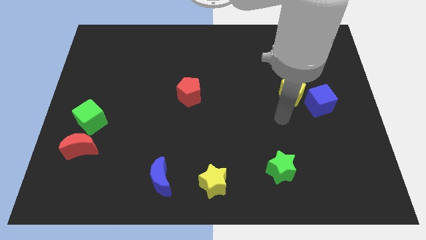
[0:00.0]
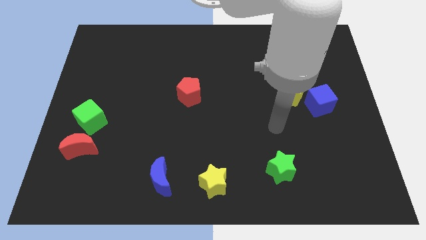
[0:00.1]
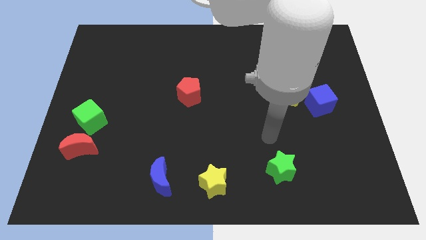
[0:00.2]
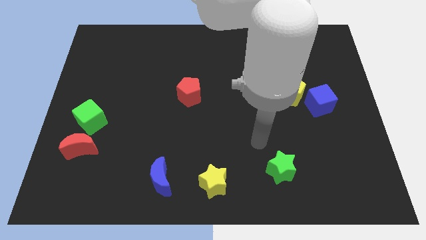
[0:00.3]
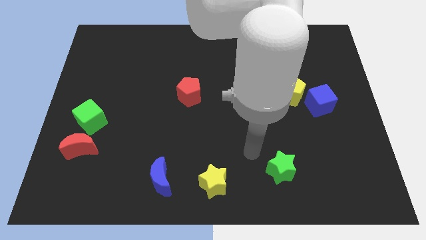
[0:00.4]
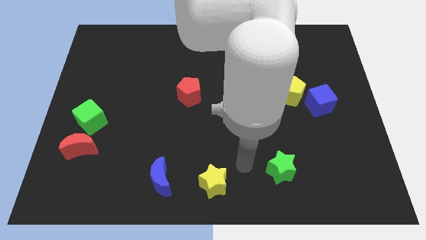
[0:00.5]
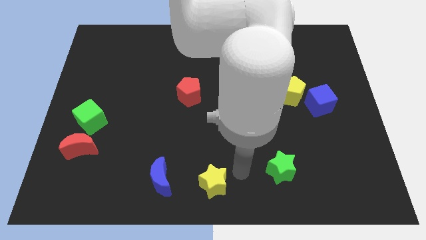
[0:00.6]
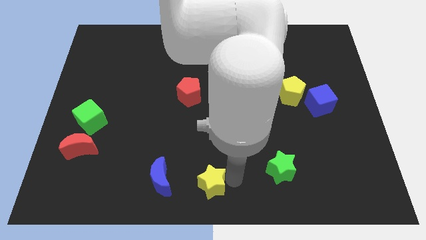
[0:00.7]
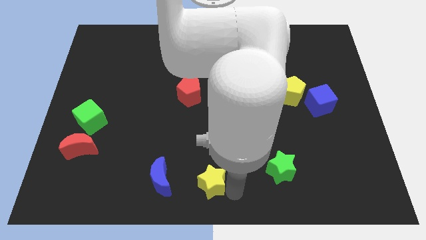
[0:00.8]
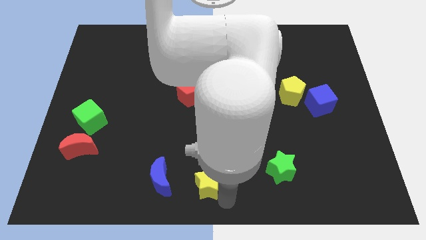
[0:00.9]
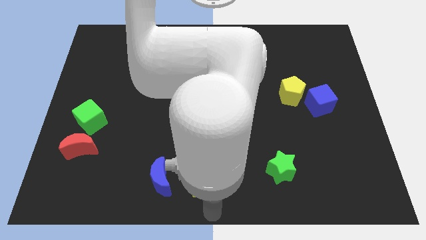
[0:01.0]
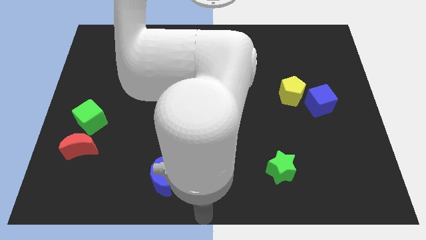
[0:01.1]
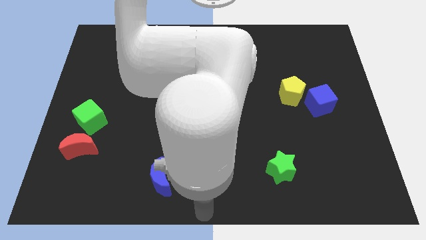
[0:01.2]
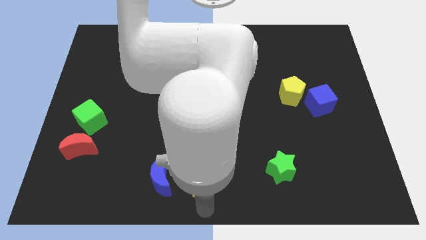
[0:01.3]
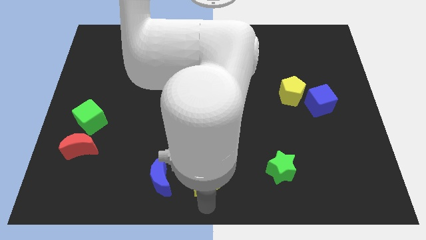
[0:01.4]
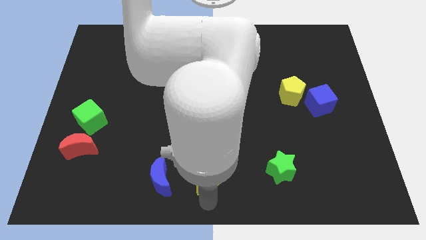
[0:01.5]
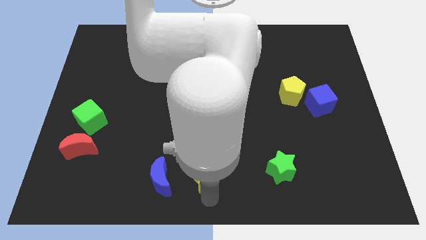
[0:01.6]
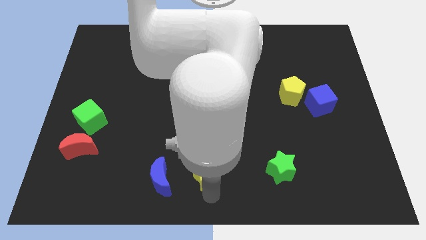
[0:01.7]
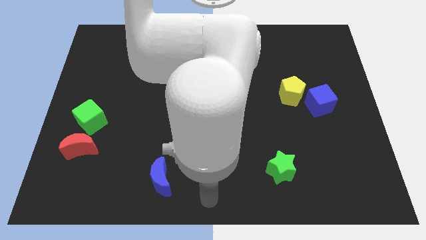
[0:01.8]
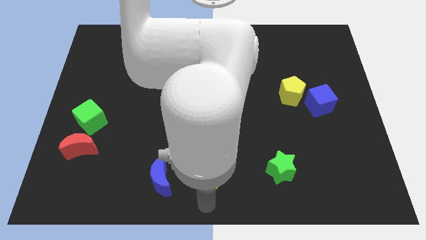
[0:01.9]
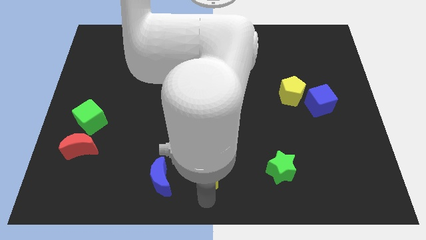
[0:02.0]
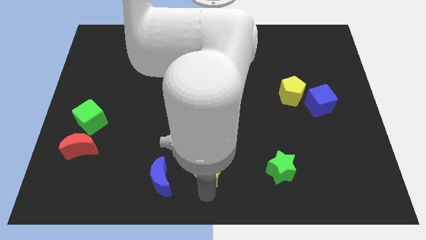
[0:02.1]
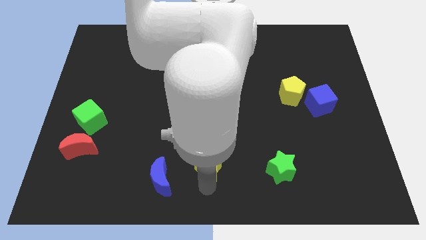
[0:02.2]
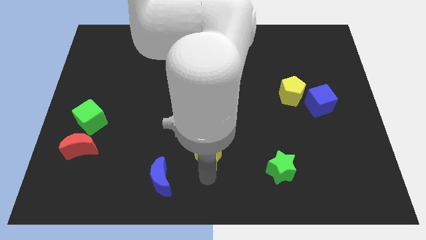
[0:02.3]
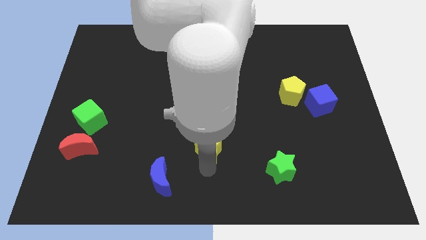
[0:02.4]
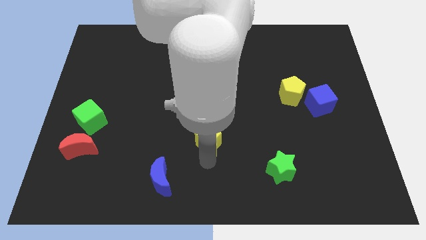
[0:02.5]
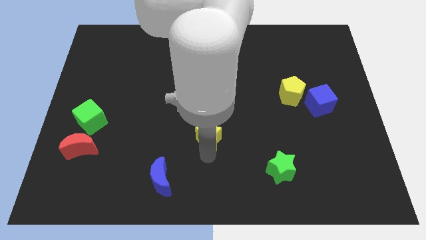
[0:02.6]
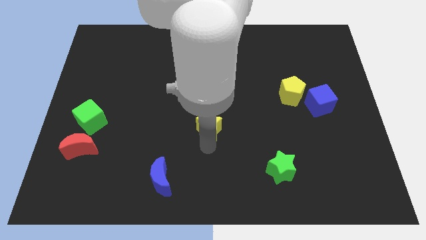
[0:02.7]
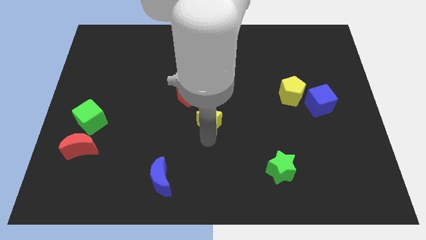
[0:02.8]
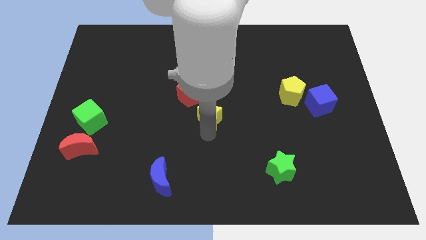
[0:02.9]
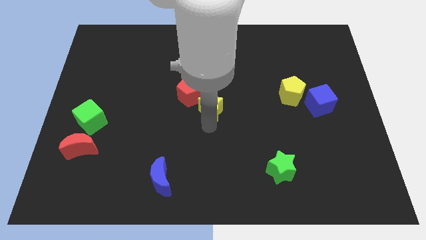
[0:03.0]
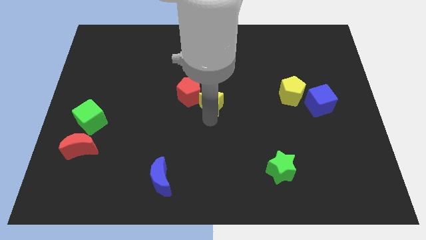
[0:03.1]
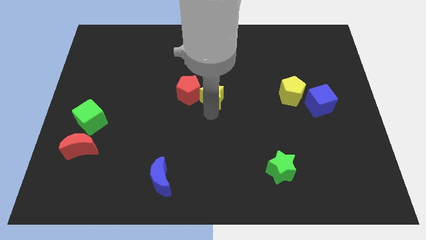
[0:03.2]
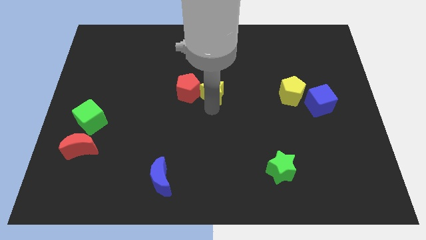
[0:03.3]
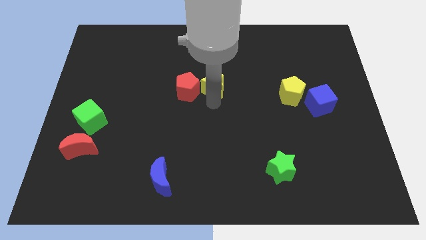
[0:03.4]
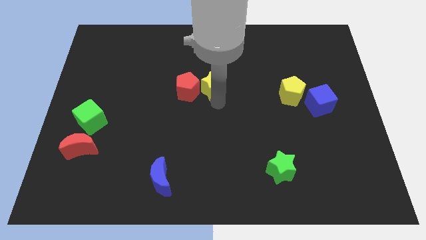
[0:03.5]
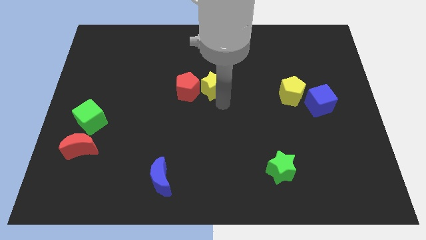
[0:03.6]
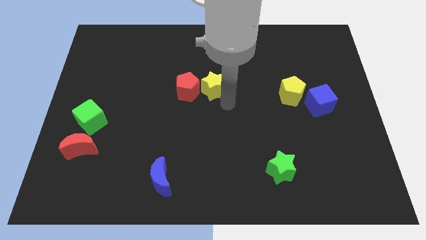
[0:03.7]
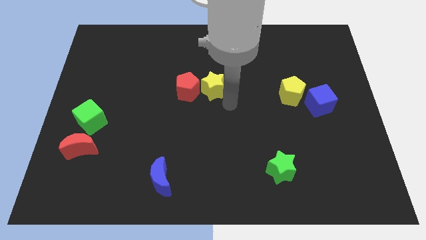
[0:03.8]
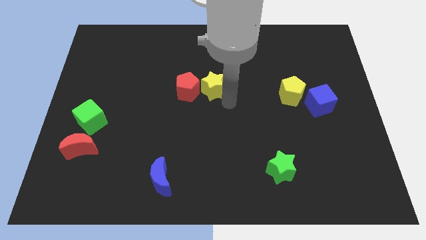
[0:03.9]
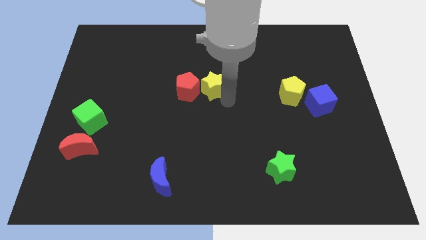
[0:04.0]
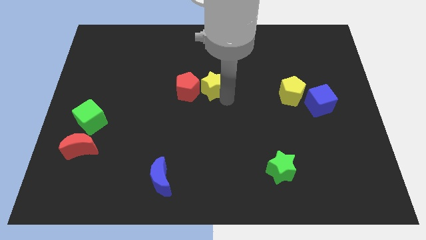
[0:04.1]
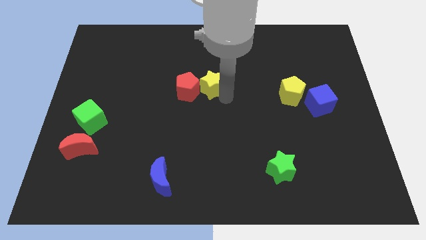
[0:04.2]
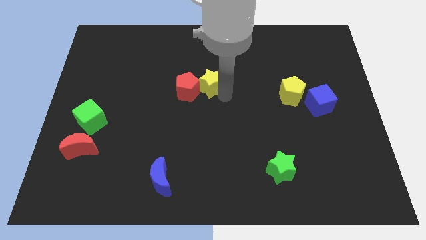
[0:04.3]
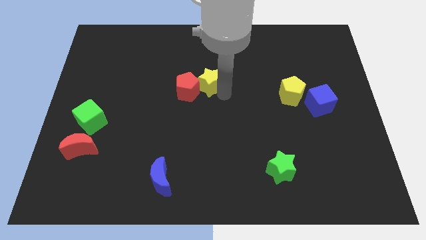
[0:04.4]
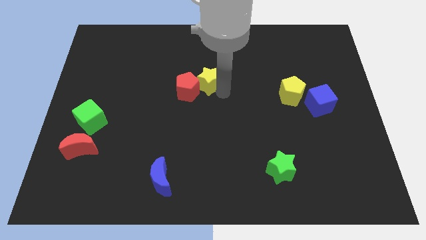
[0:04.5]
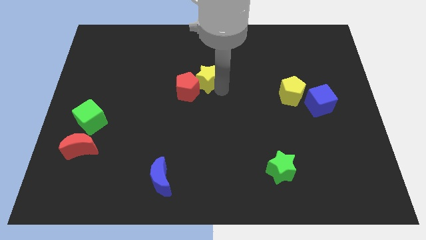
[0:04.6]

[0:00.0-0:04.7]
move the yellow star above the red pentagon

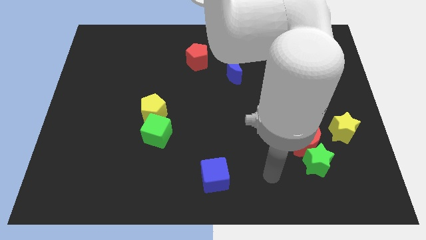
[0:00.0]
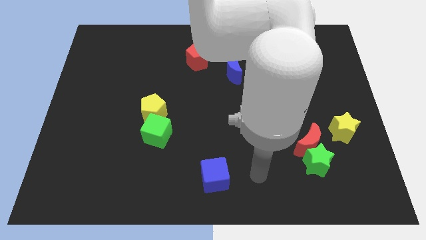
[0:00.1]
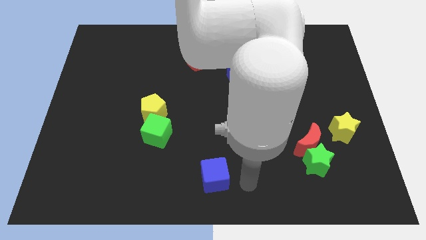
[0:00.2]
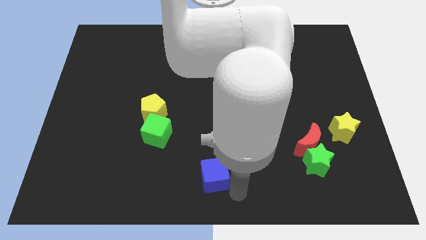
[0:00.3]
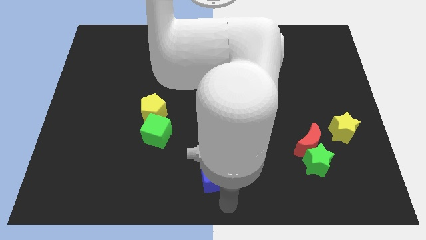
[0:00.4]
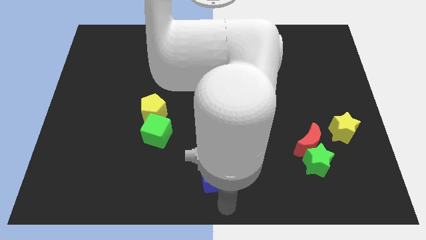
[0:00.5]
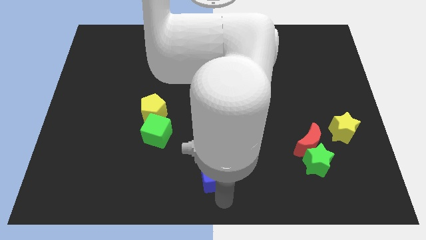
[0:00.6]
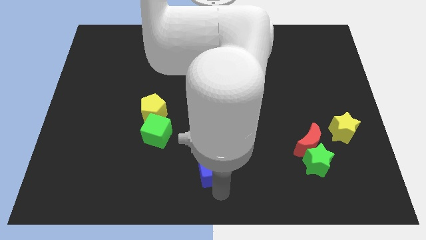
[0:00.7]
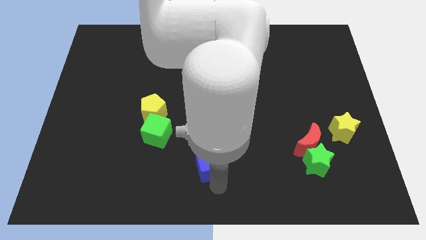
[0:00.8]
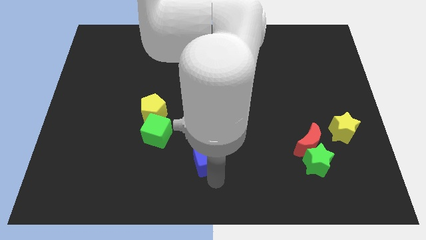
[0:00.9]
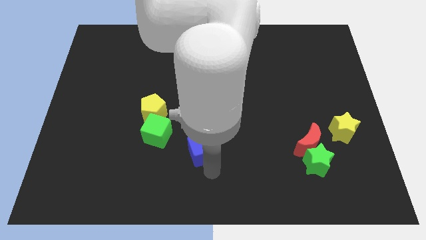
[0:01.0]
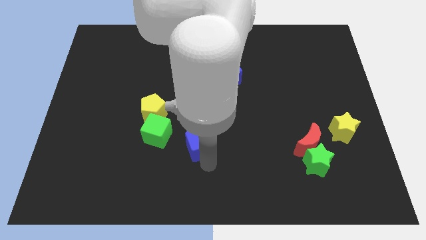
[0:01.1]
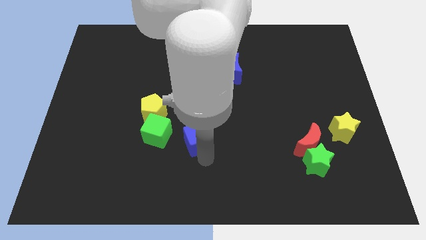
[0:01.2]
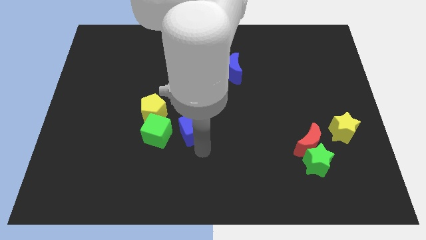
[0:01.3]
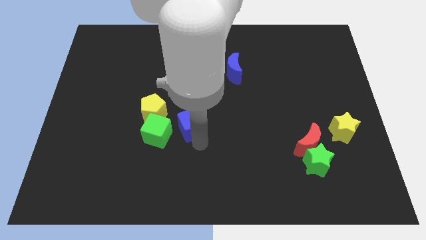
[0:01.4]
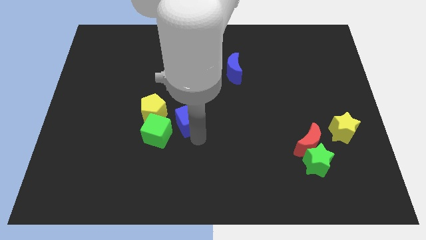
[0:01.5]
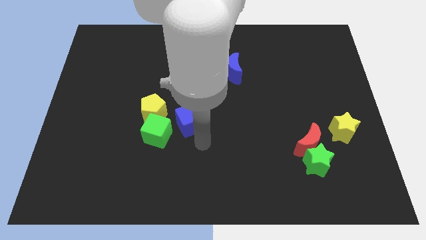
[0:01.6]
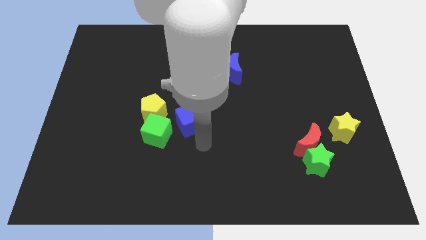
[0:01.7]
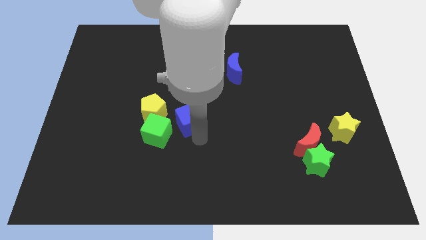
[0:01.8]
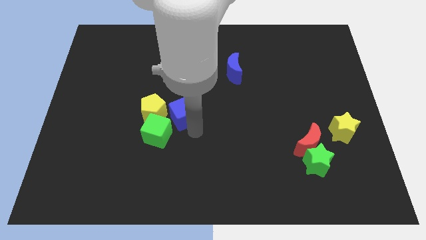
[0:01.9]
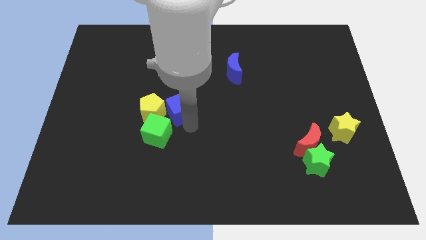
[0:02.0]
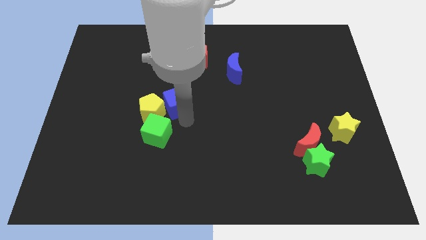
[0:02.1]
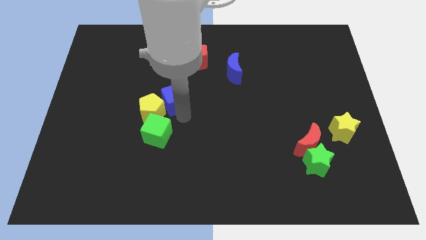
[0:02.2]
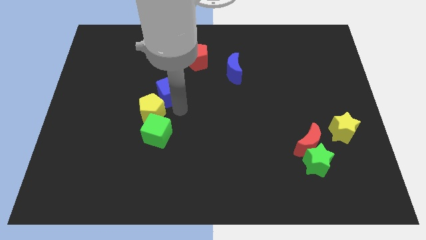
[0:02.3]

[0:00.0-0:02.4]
move the blue cube above the yellow pentagon

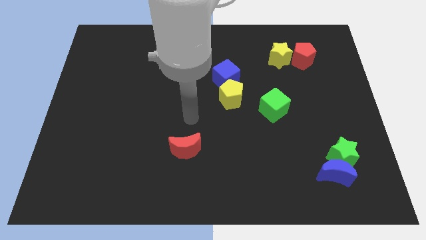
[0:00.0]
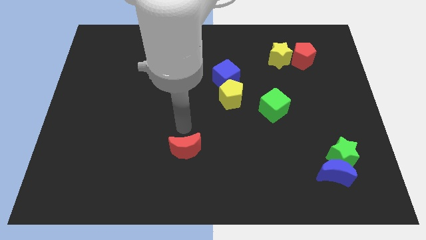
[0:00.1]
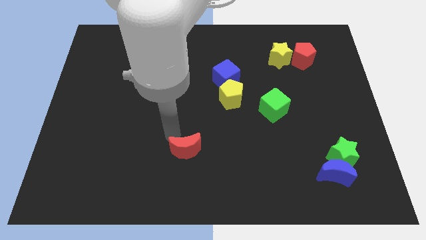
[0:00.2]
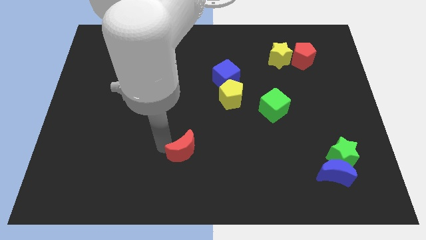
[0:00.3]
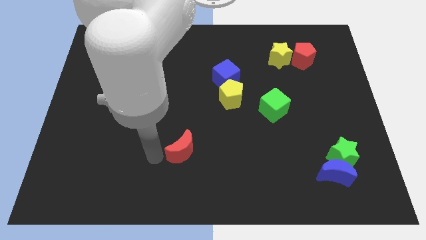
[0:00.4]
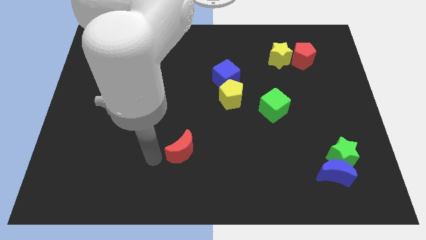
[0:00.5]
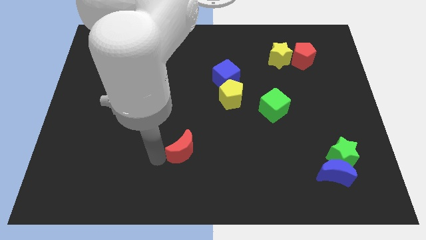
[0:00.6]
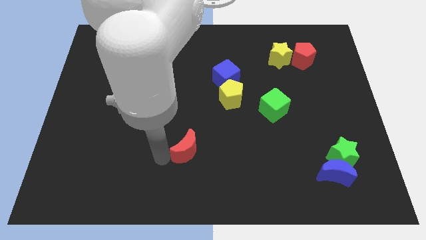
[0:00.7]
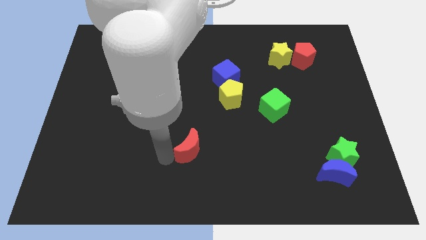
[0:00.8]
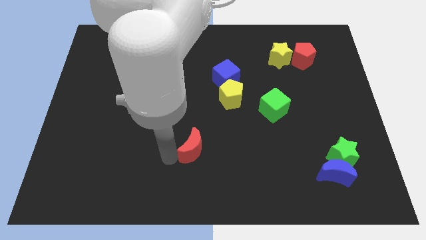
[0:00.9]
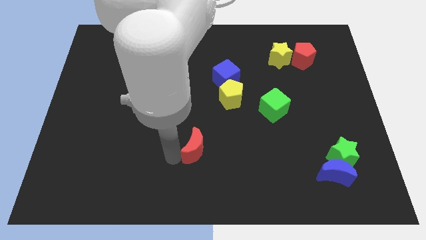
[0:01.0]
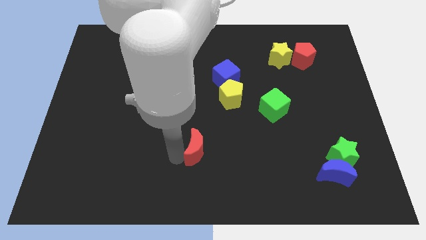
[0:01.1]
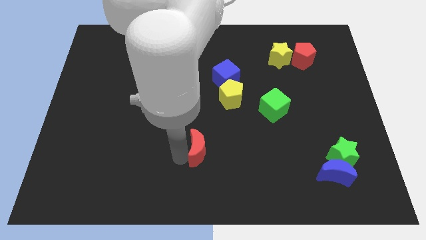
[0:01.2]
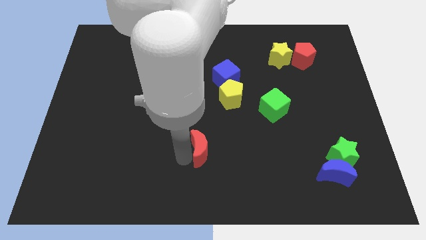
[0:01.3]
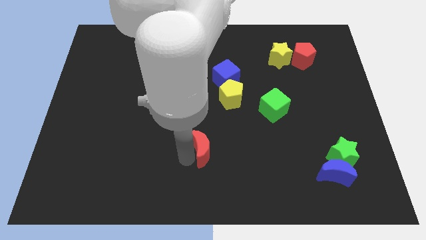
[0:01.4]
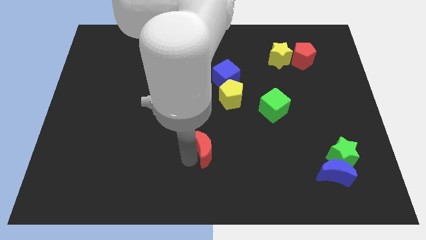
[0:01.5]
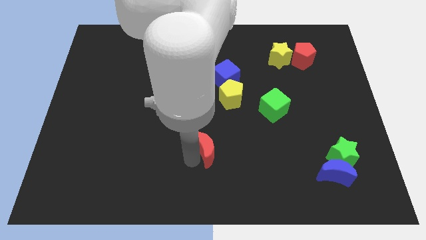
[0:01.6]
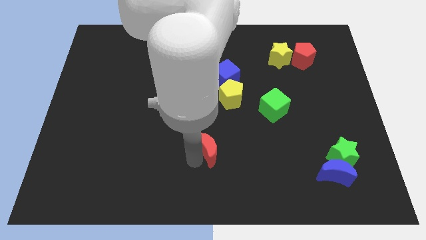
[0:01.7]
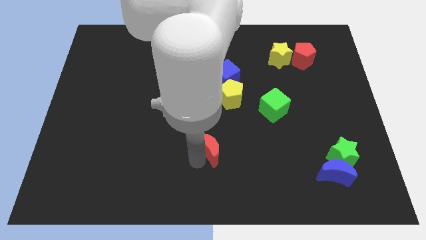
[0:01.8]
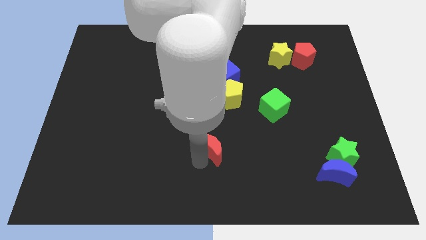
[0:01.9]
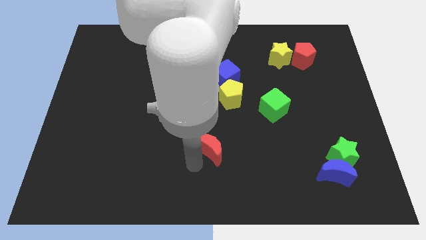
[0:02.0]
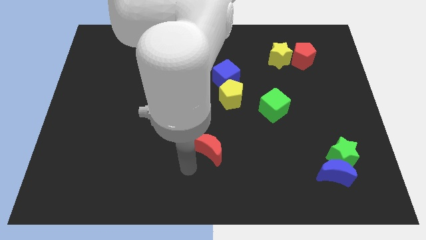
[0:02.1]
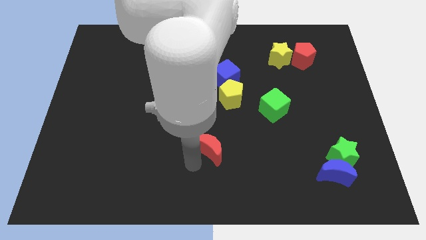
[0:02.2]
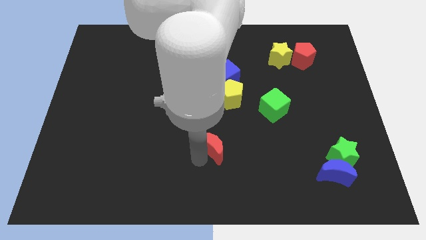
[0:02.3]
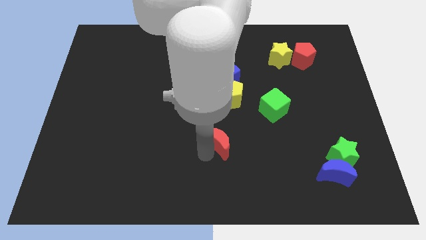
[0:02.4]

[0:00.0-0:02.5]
put the red moon to the bottom of the yellow pentagon
